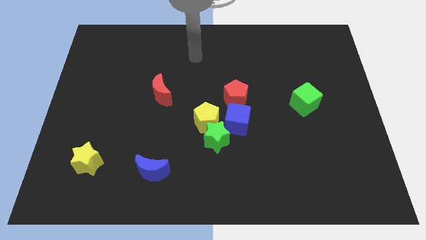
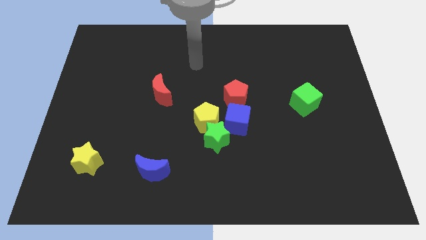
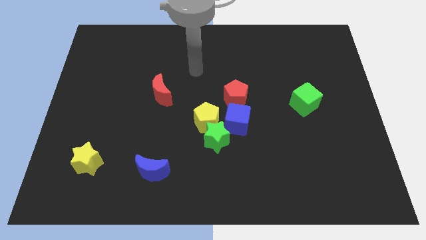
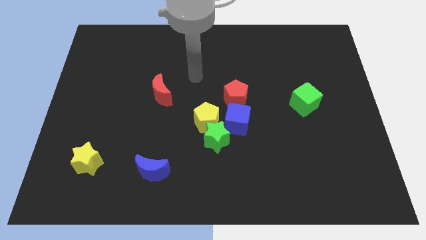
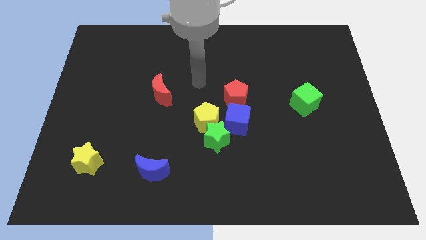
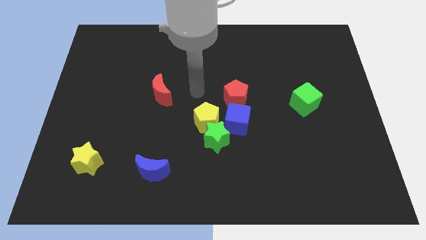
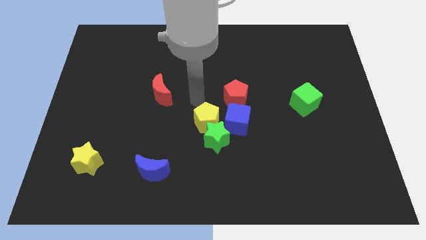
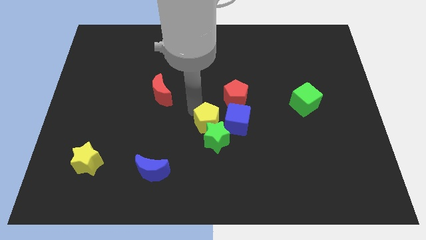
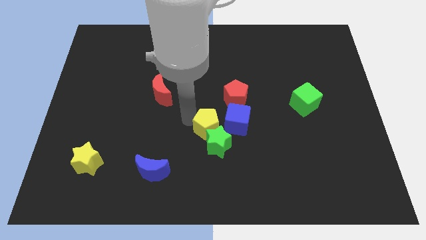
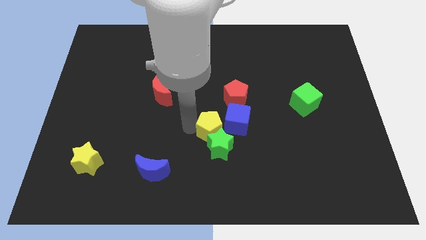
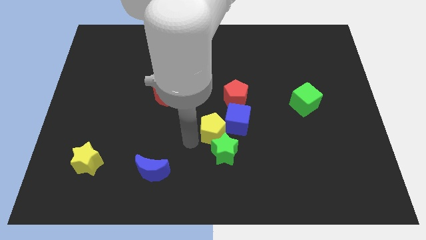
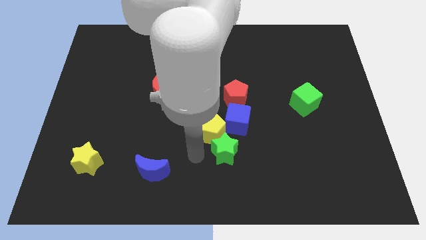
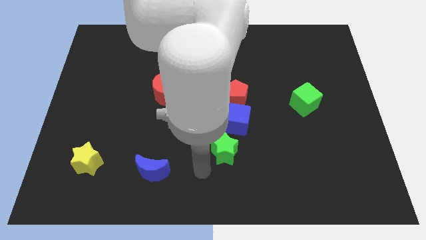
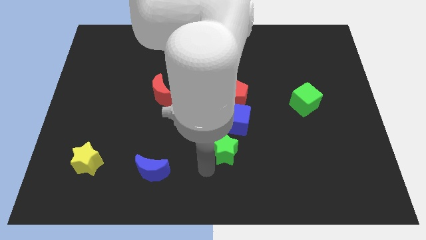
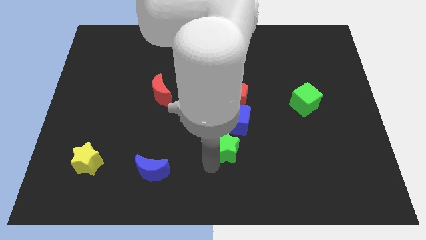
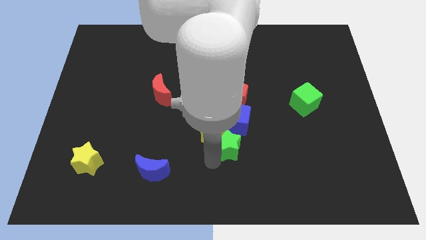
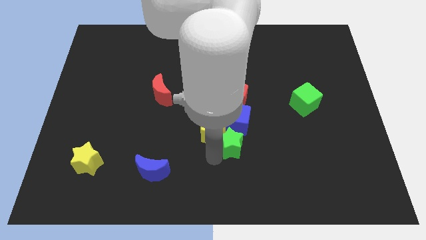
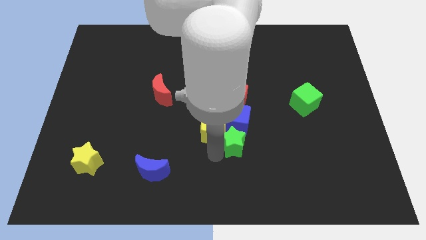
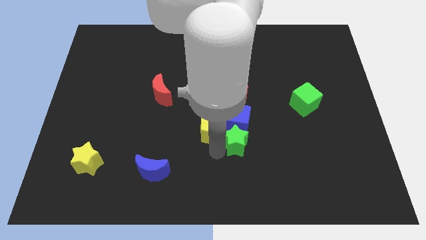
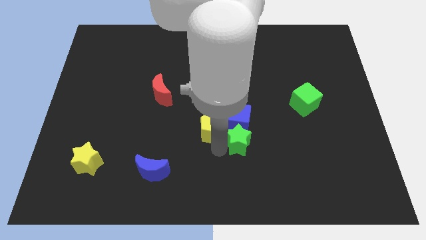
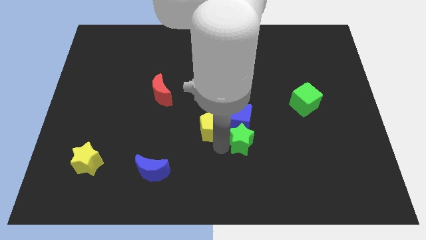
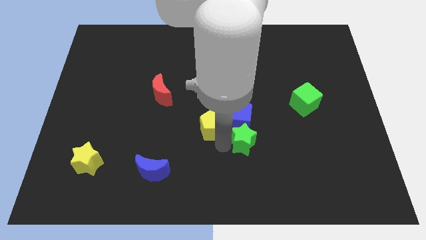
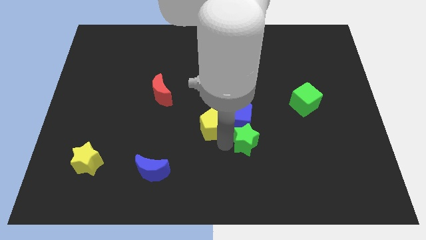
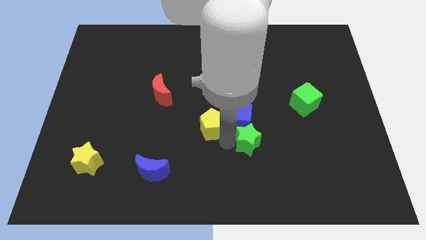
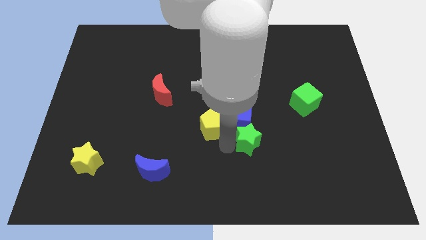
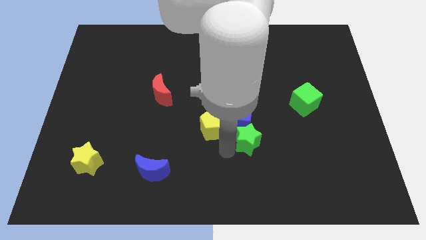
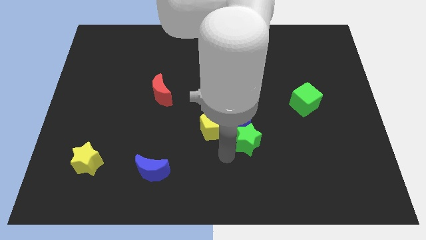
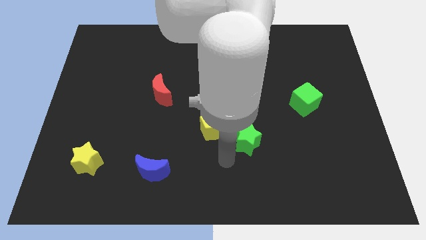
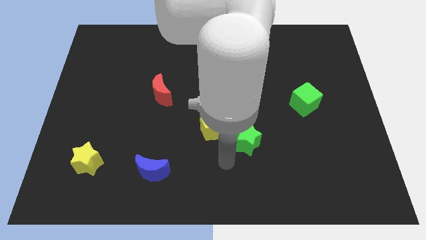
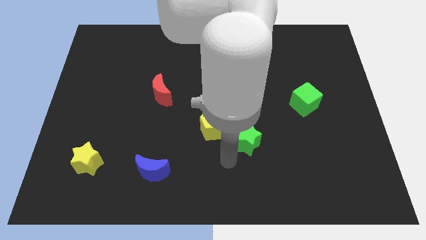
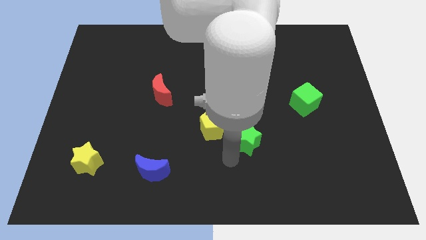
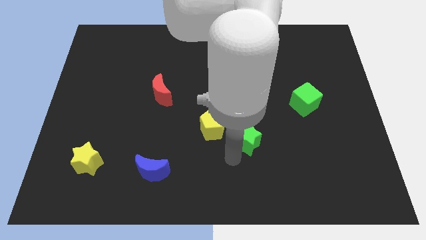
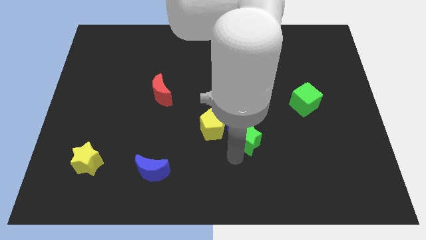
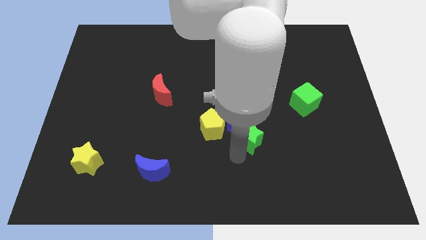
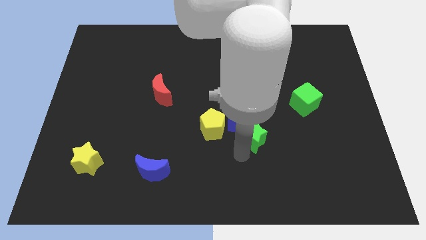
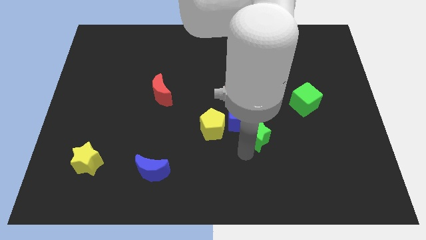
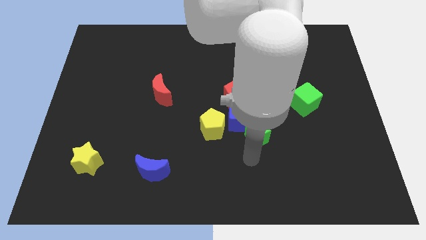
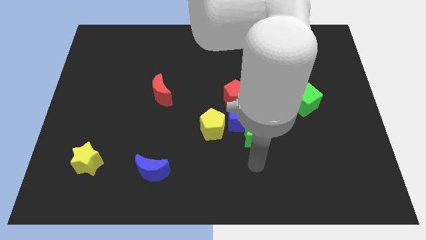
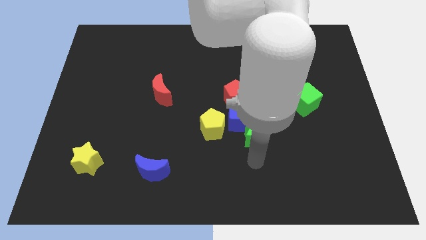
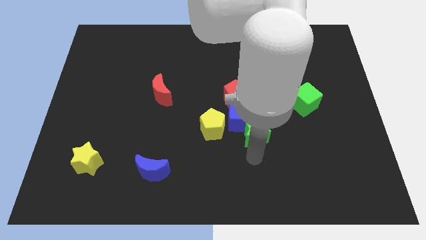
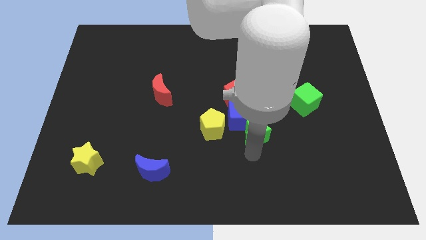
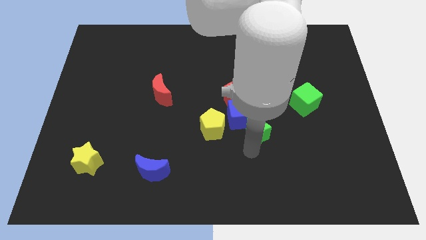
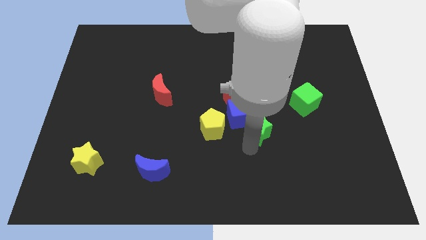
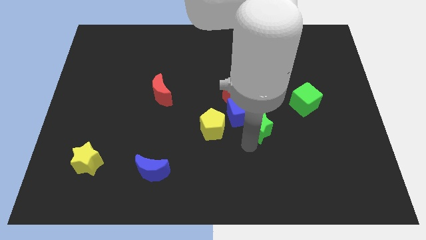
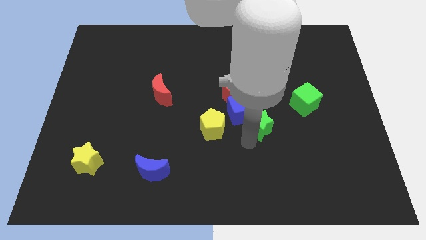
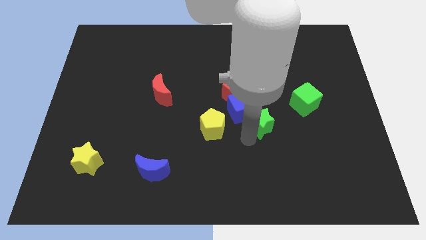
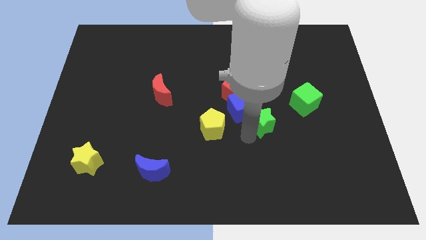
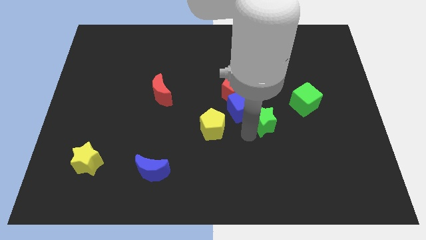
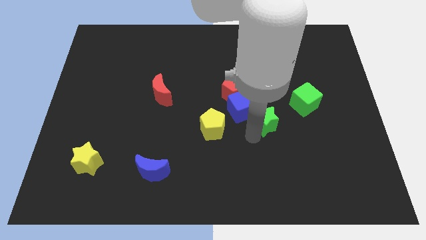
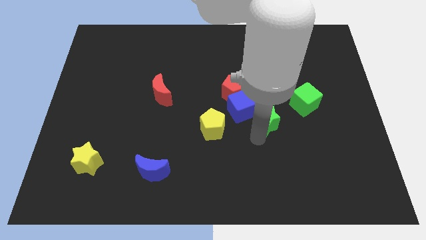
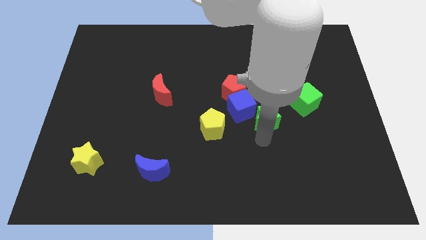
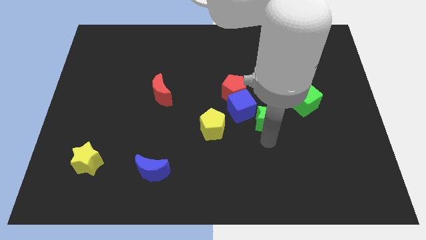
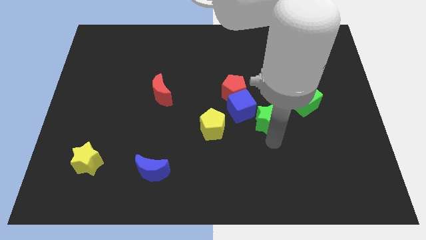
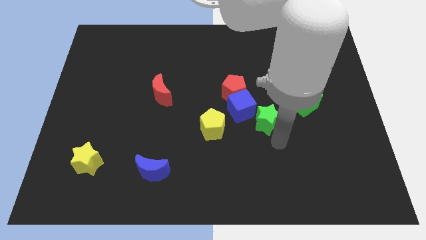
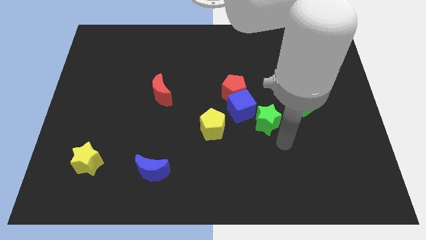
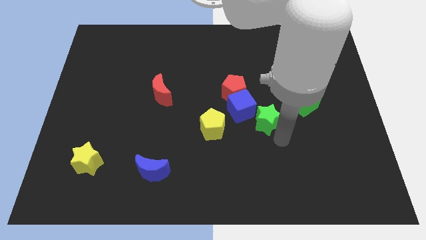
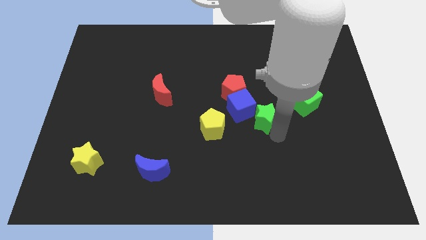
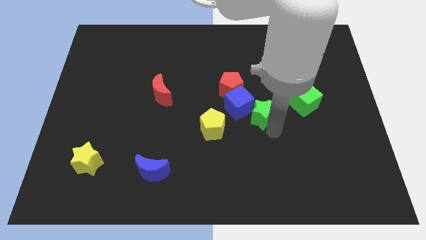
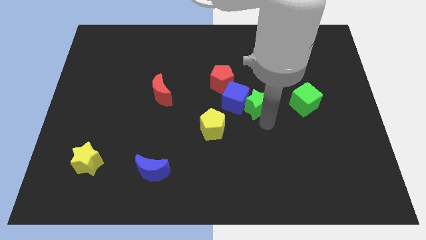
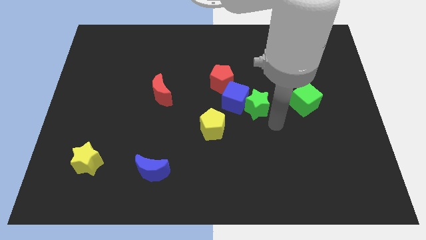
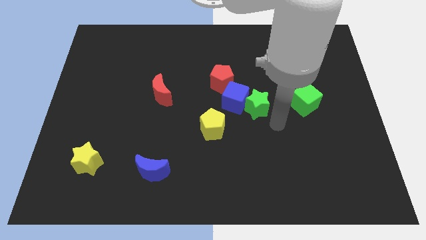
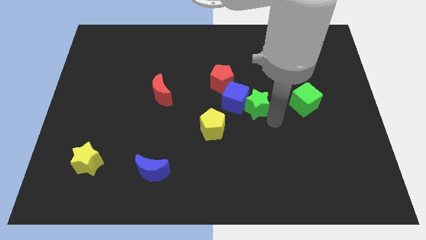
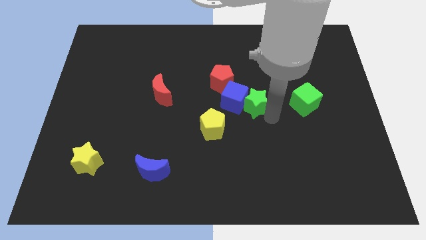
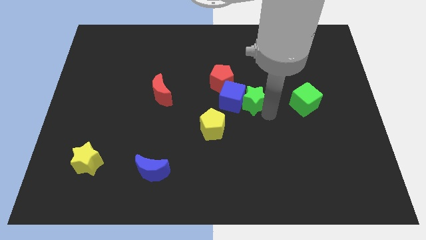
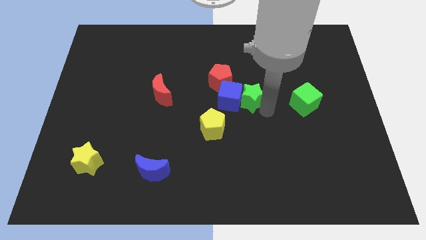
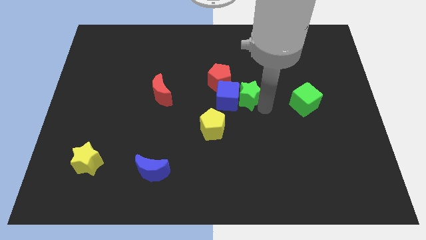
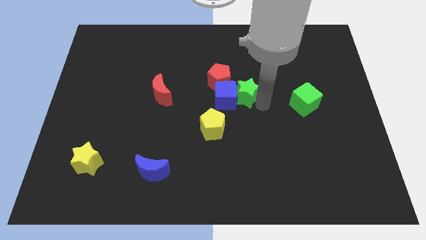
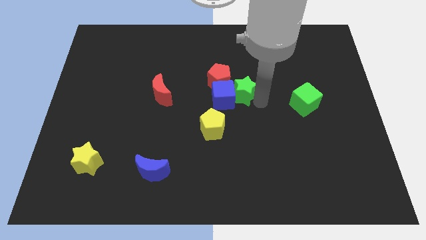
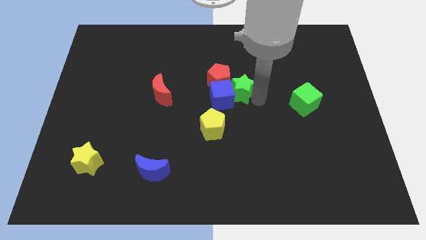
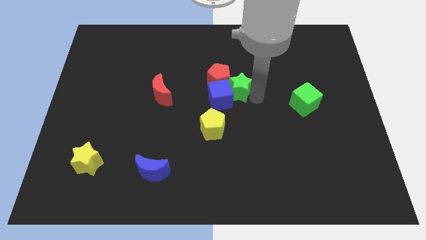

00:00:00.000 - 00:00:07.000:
put the green star to the red pentagon

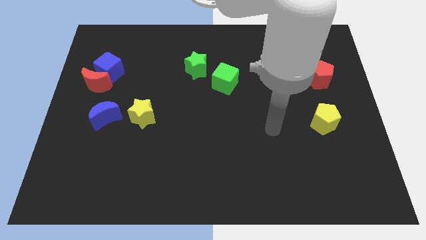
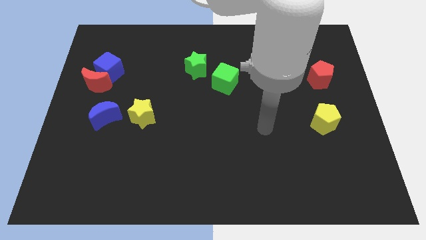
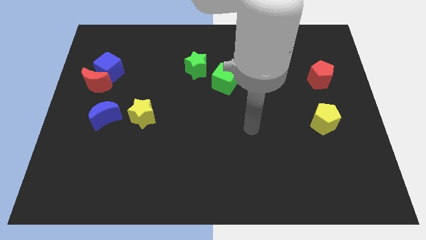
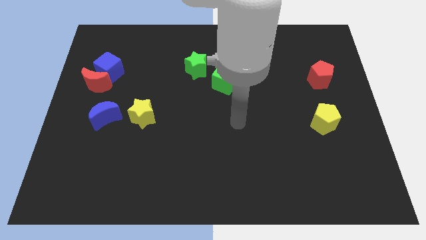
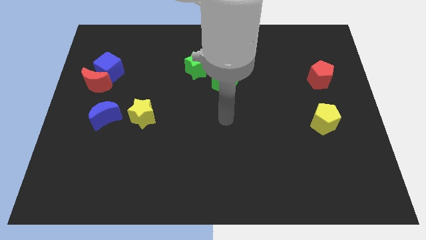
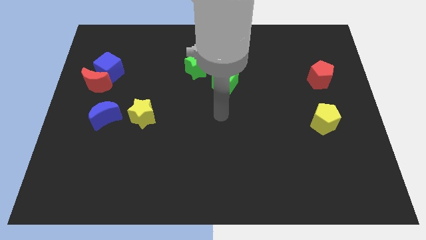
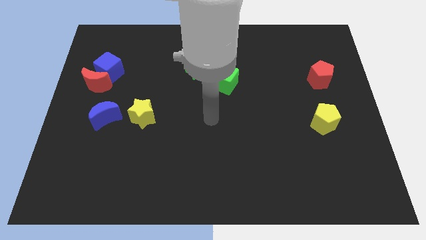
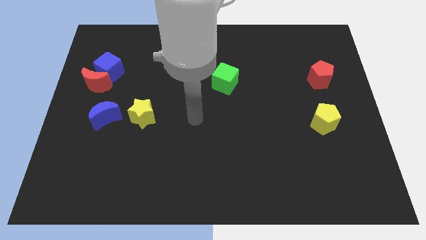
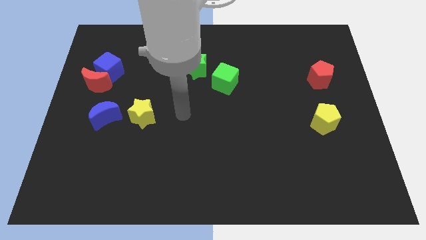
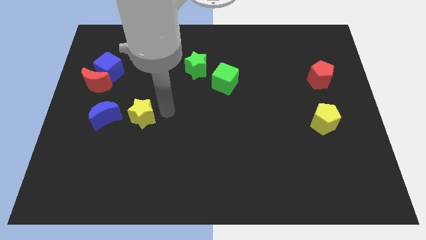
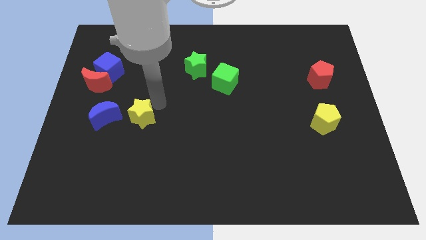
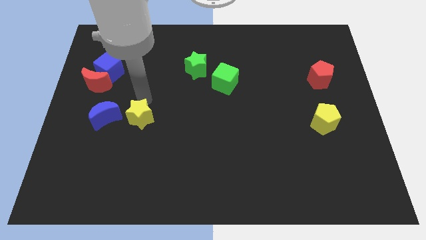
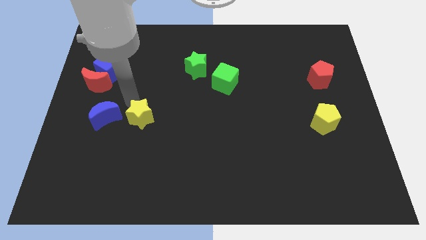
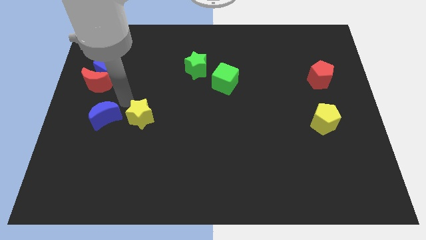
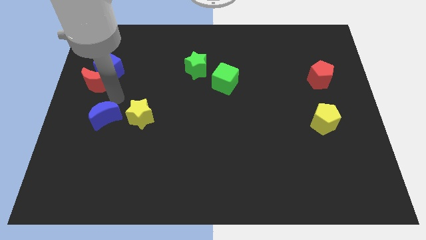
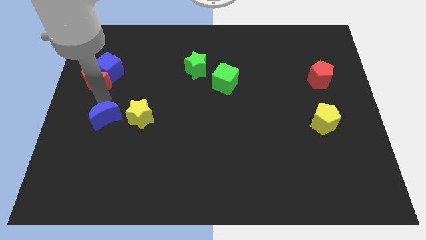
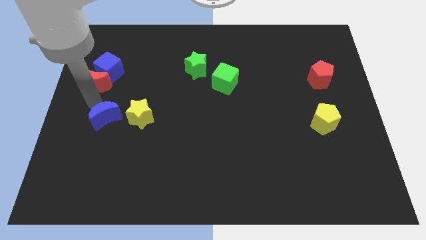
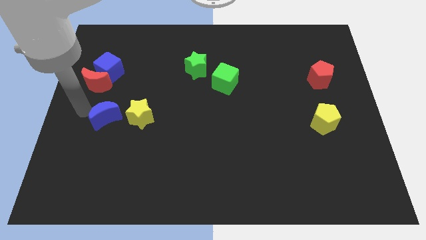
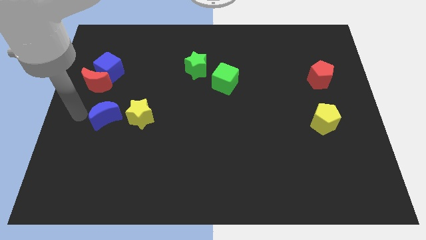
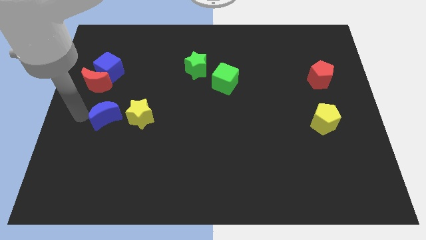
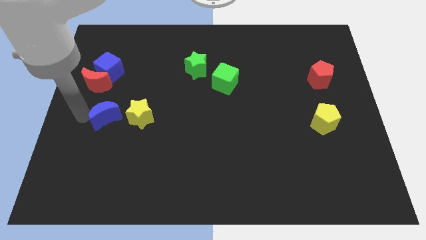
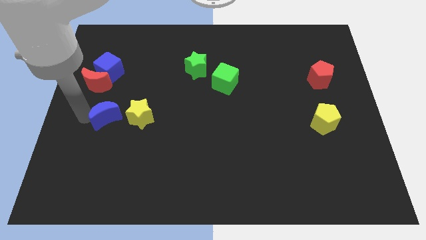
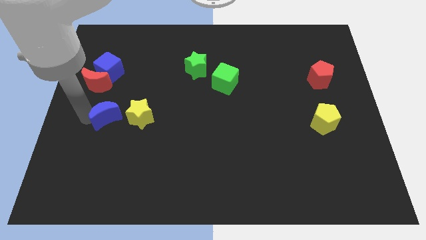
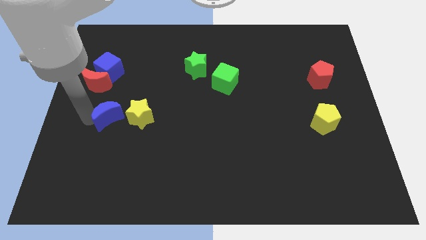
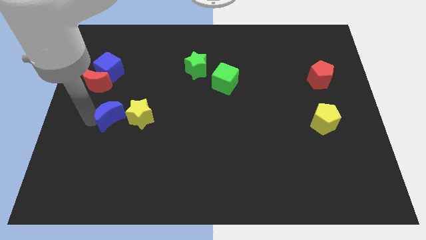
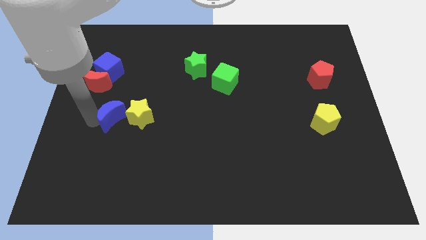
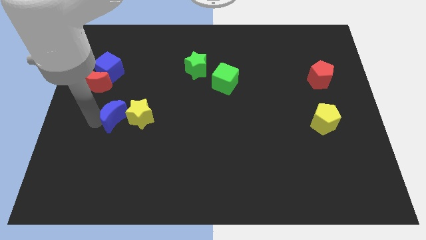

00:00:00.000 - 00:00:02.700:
slide the blue moon to the yellow star
